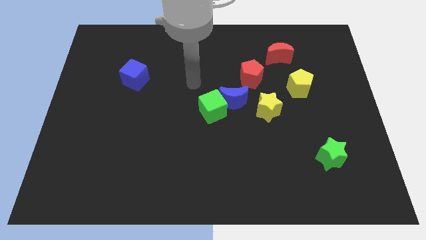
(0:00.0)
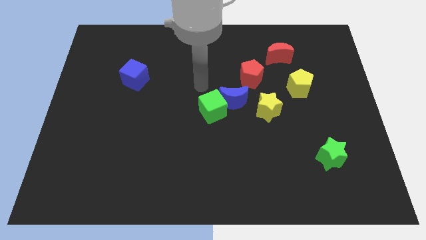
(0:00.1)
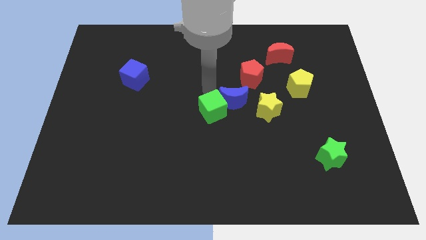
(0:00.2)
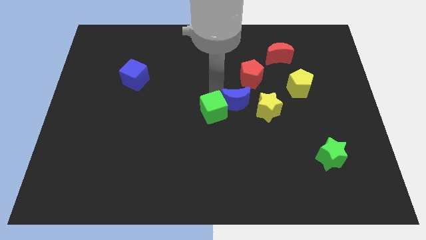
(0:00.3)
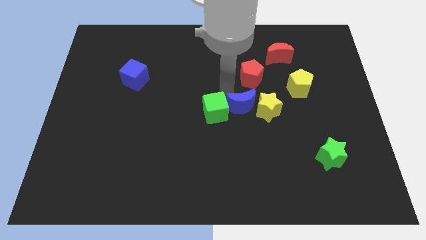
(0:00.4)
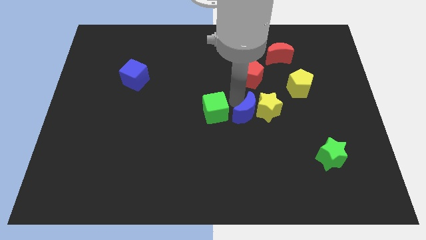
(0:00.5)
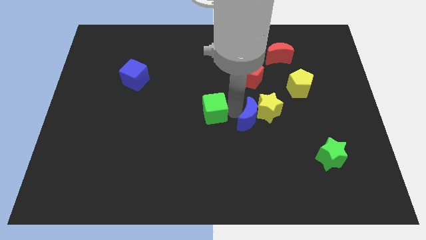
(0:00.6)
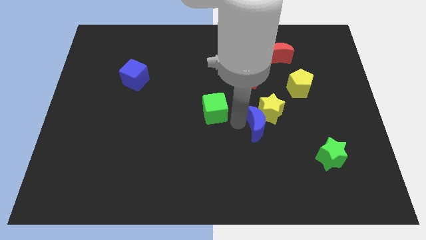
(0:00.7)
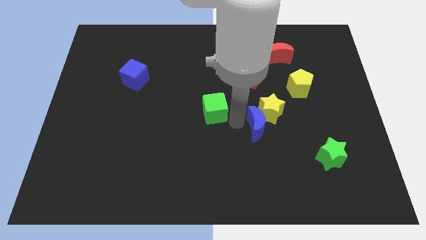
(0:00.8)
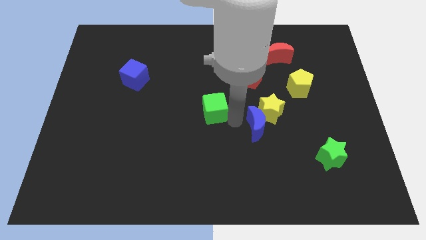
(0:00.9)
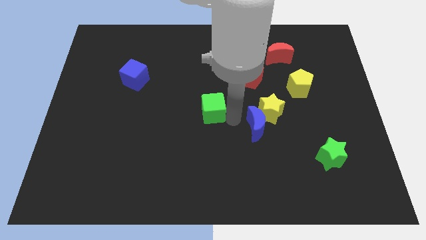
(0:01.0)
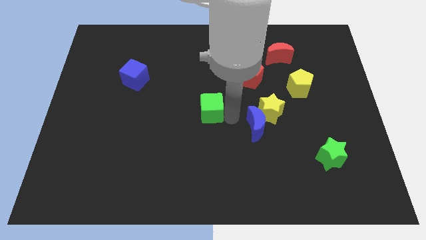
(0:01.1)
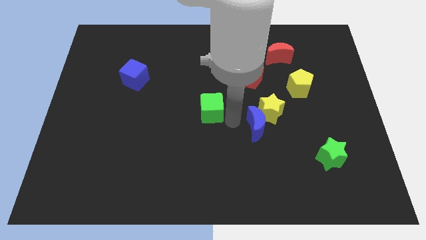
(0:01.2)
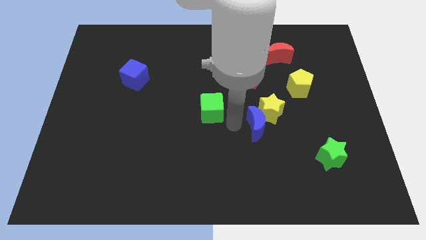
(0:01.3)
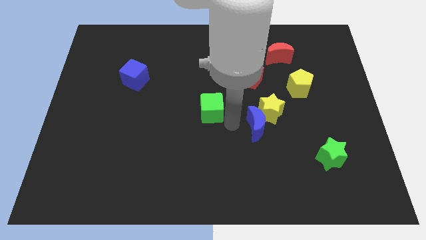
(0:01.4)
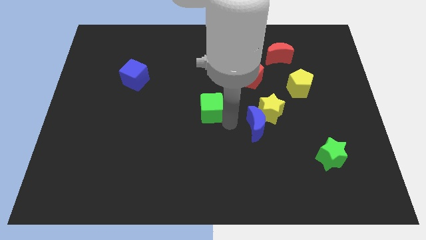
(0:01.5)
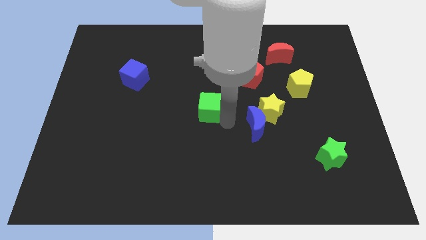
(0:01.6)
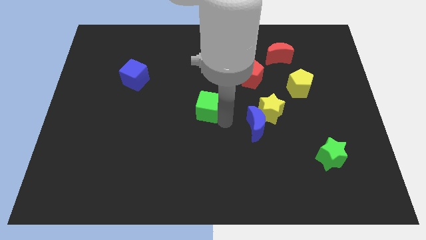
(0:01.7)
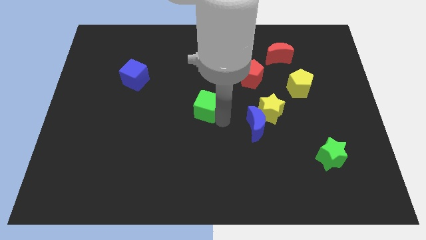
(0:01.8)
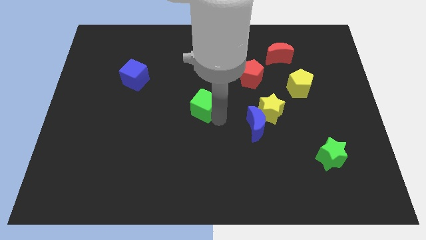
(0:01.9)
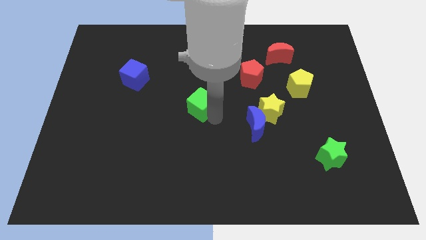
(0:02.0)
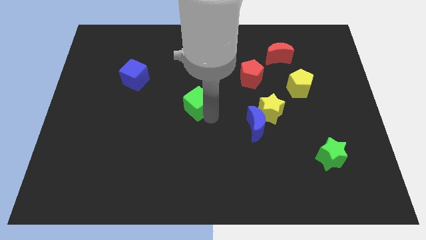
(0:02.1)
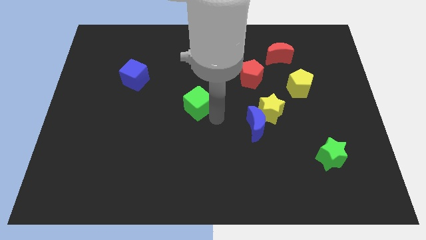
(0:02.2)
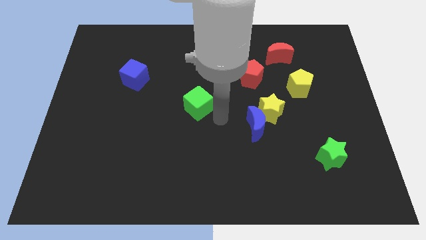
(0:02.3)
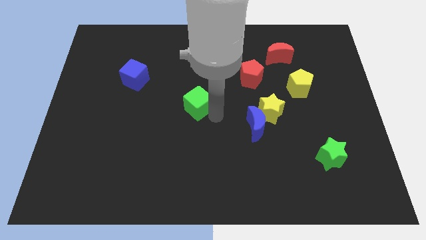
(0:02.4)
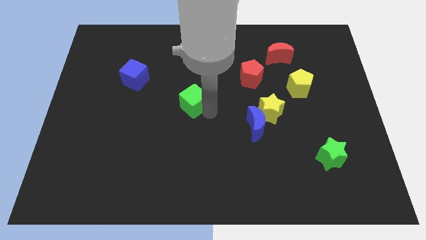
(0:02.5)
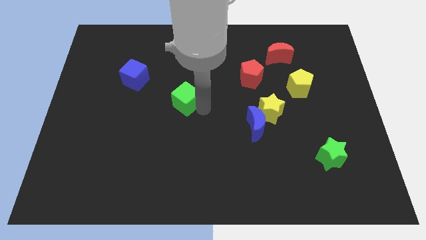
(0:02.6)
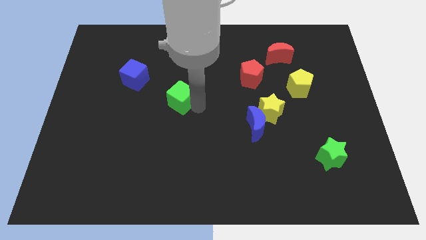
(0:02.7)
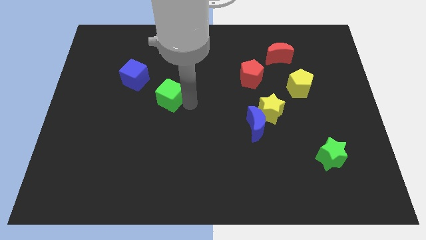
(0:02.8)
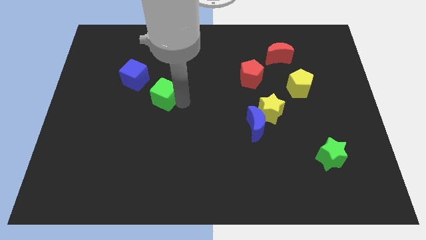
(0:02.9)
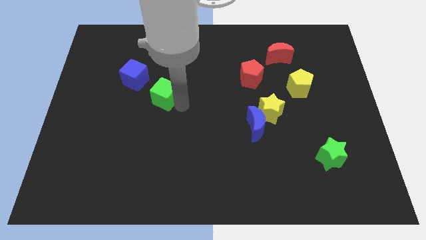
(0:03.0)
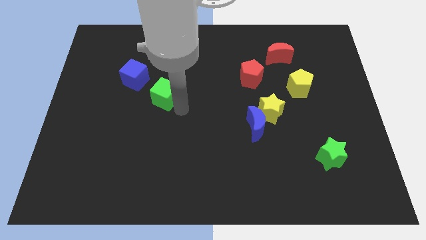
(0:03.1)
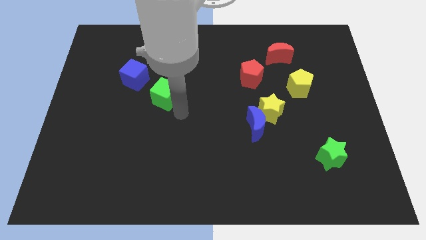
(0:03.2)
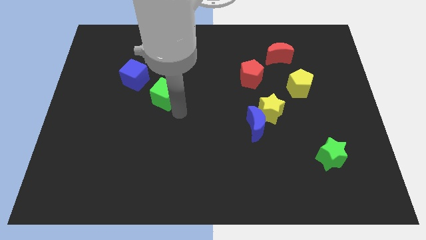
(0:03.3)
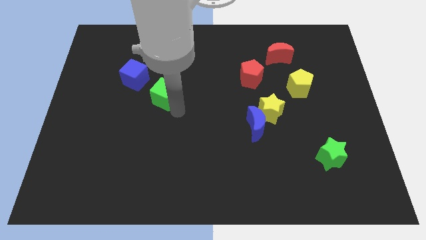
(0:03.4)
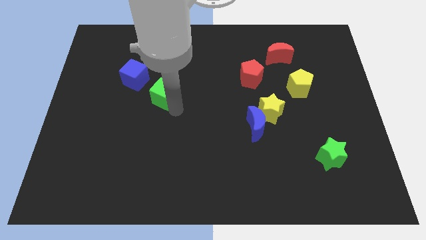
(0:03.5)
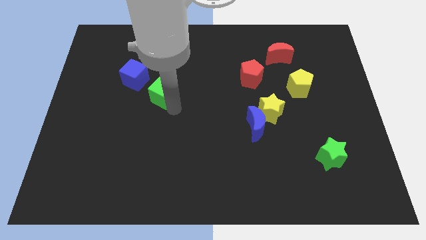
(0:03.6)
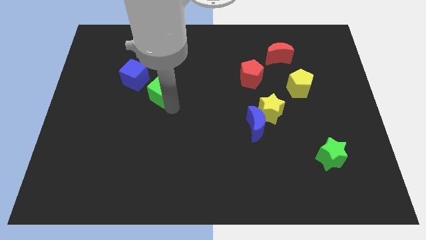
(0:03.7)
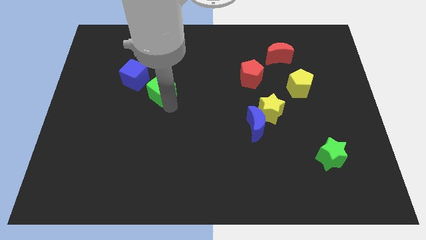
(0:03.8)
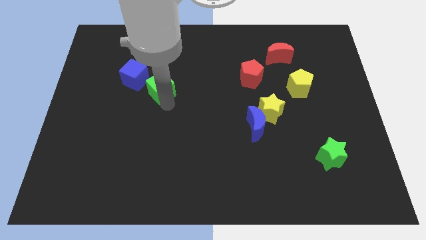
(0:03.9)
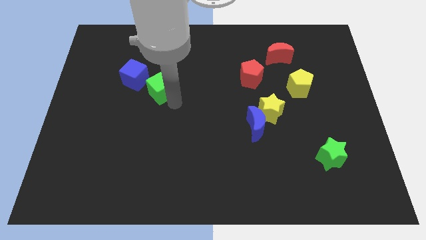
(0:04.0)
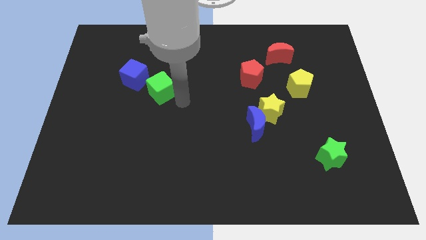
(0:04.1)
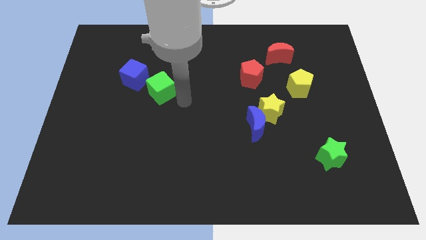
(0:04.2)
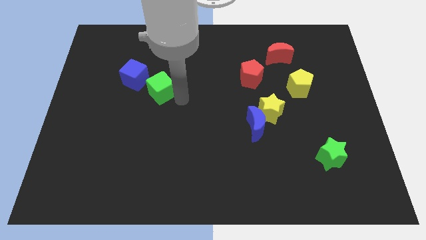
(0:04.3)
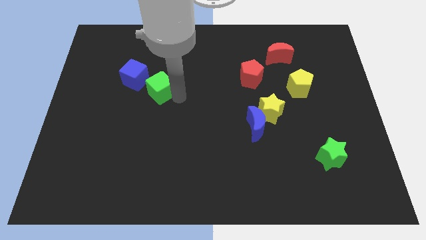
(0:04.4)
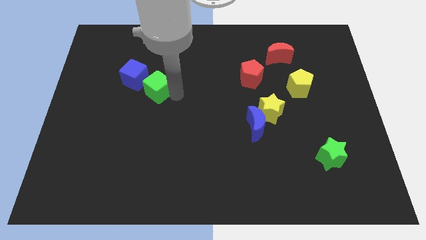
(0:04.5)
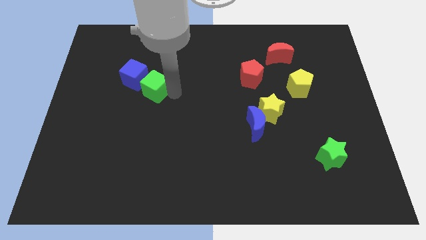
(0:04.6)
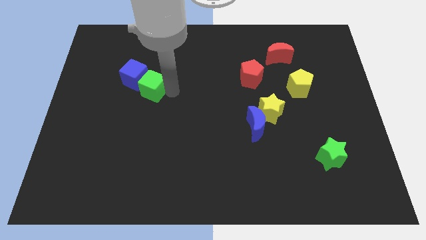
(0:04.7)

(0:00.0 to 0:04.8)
move the green cube next to the blue cube

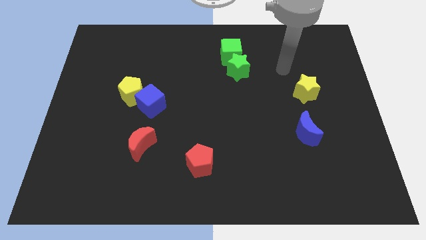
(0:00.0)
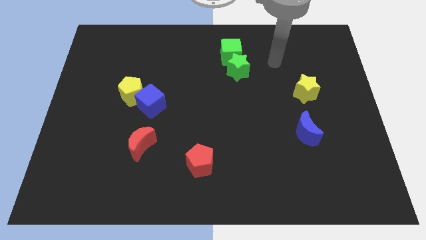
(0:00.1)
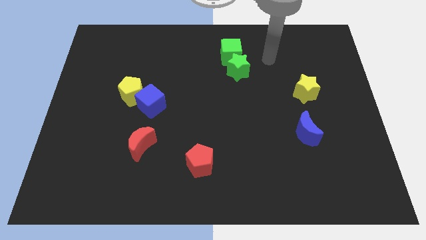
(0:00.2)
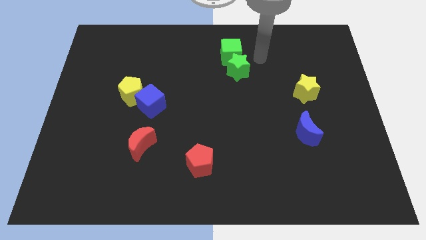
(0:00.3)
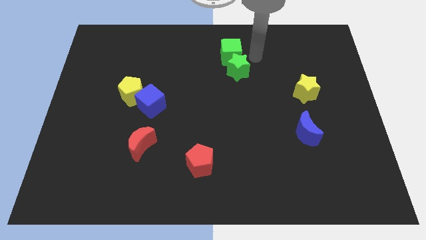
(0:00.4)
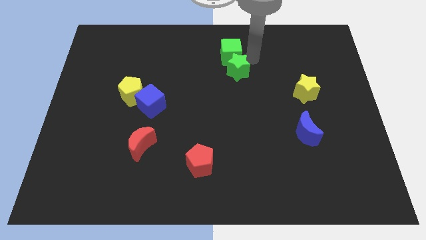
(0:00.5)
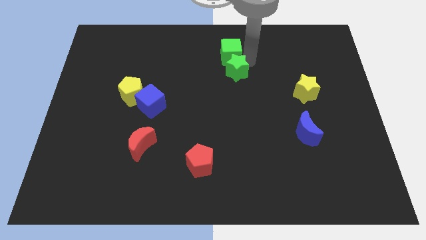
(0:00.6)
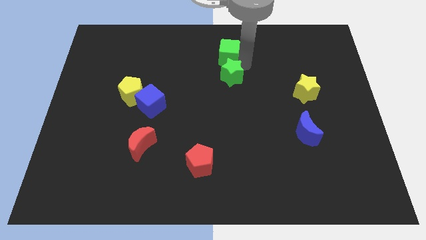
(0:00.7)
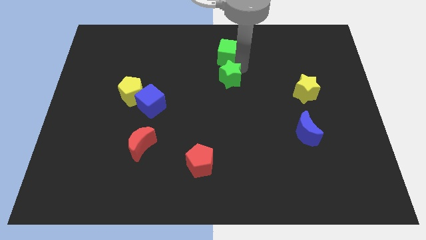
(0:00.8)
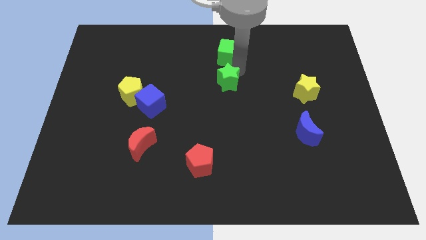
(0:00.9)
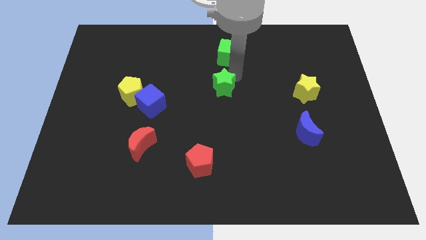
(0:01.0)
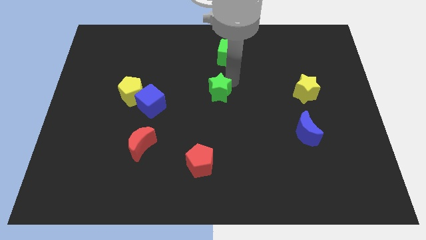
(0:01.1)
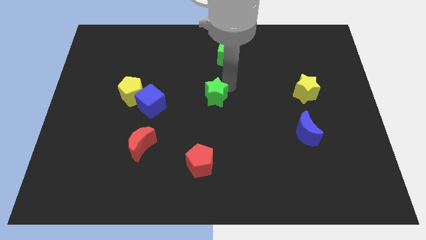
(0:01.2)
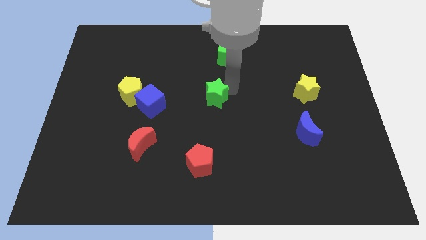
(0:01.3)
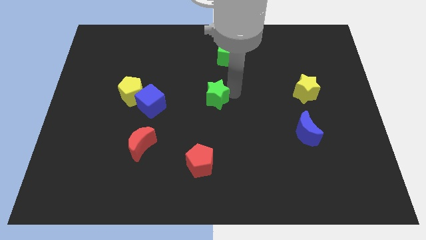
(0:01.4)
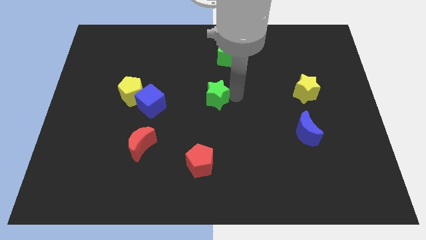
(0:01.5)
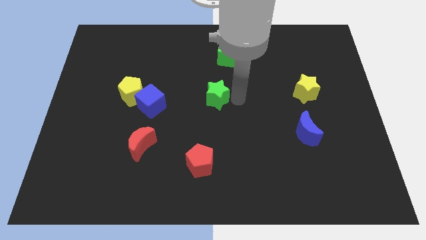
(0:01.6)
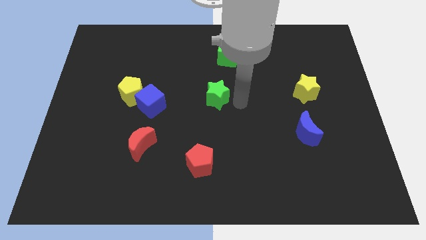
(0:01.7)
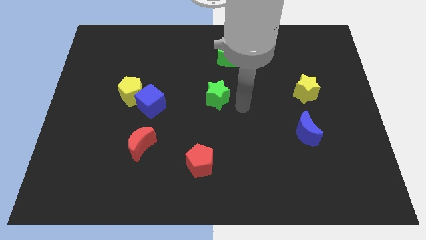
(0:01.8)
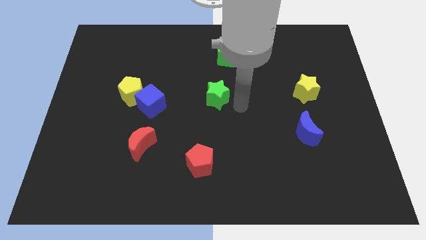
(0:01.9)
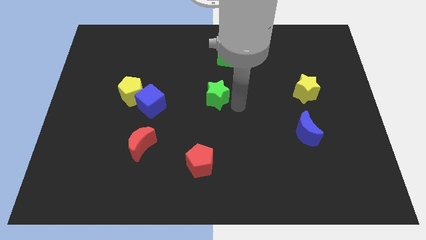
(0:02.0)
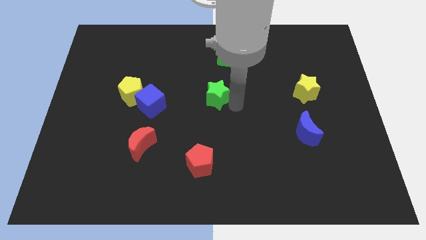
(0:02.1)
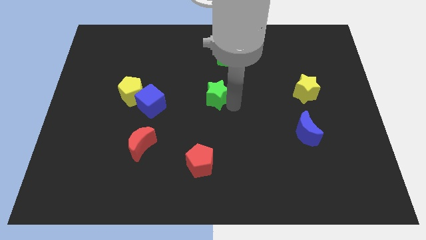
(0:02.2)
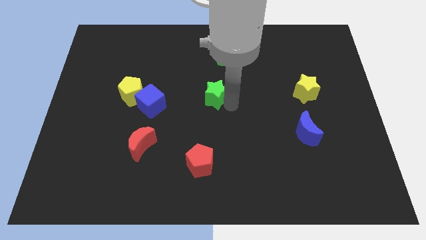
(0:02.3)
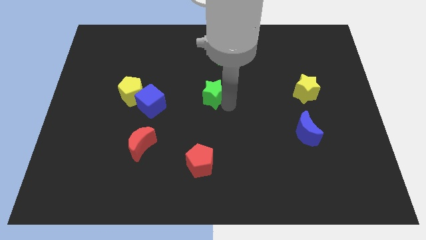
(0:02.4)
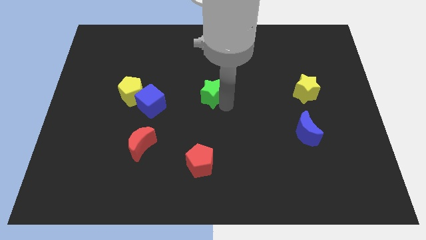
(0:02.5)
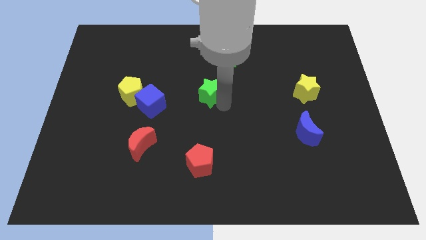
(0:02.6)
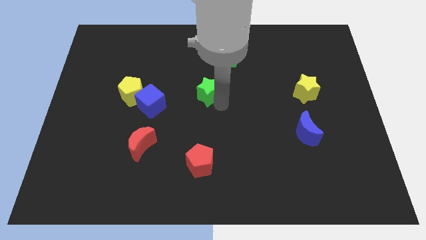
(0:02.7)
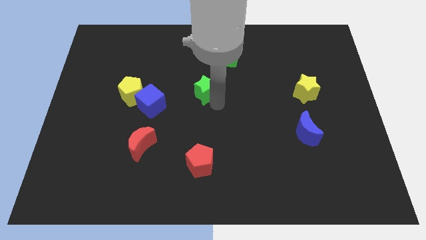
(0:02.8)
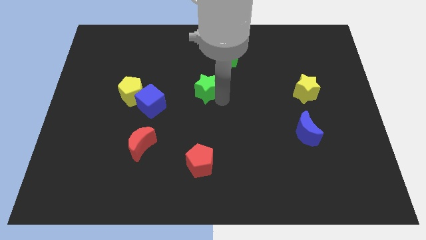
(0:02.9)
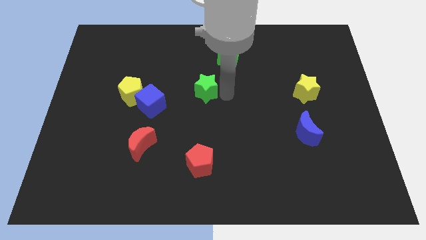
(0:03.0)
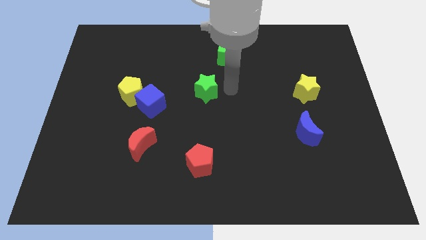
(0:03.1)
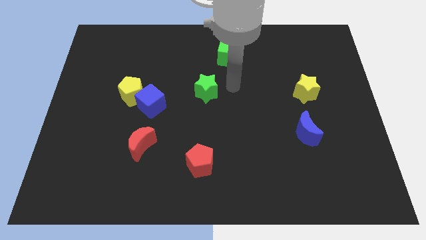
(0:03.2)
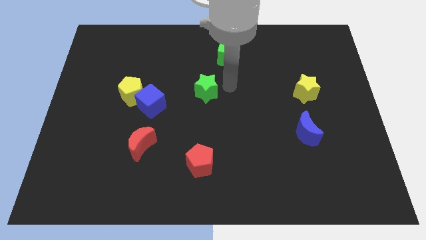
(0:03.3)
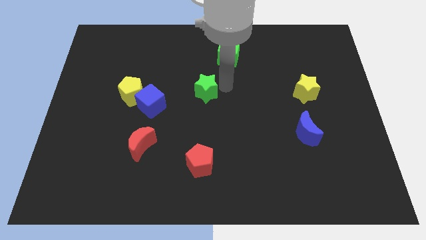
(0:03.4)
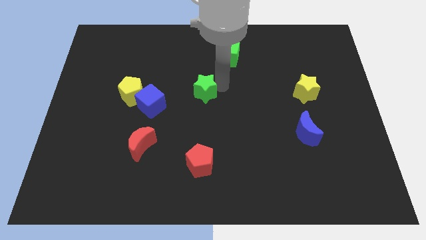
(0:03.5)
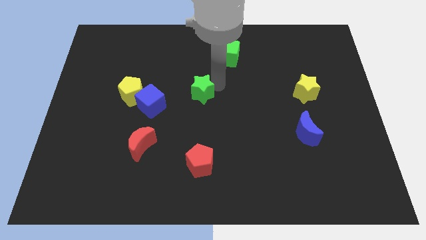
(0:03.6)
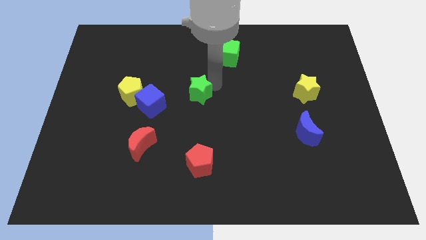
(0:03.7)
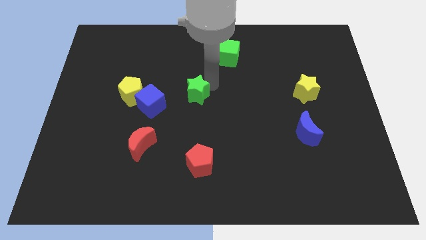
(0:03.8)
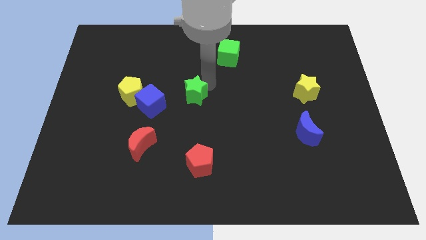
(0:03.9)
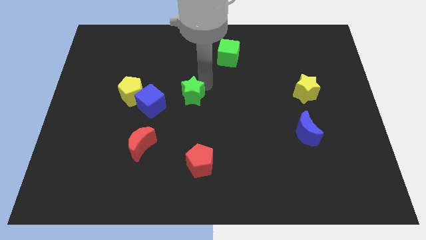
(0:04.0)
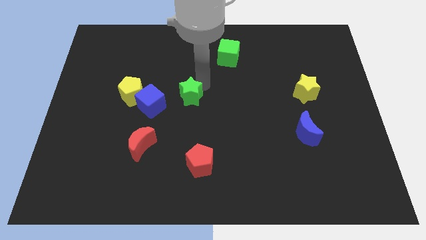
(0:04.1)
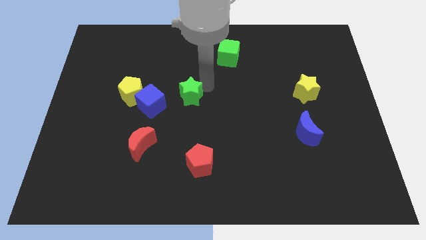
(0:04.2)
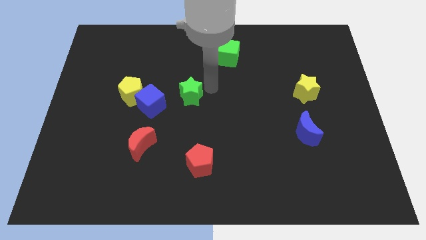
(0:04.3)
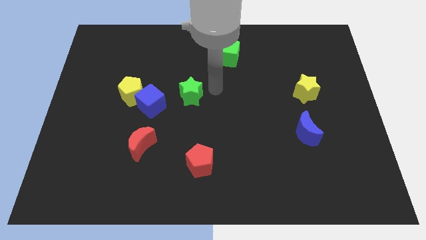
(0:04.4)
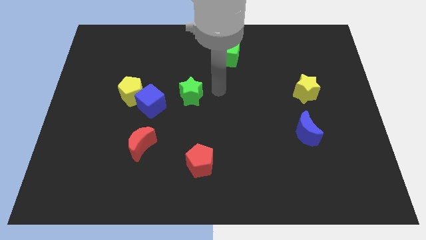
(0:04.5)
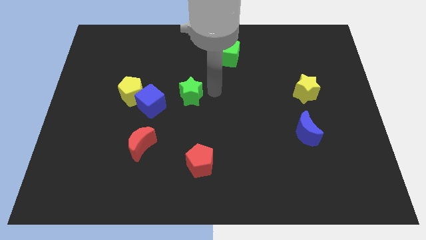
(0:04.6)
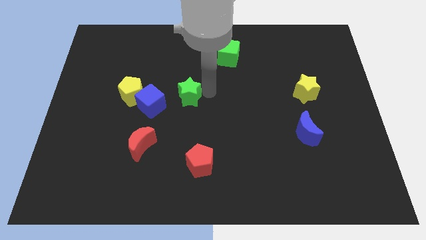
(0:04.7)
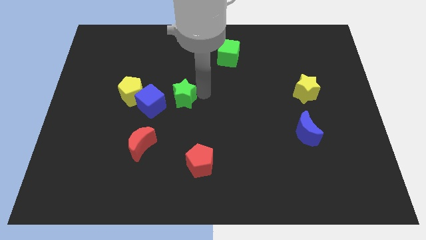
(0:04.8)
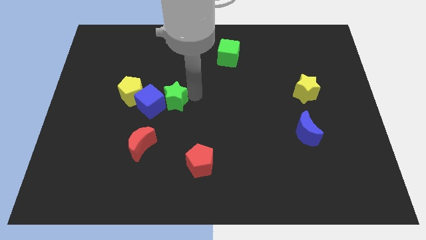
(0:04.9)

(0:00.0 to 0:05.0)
push the green star towards the blue cube
